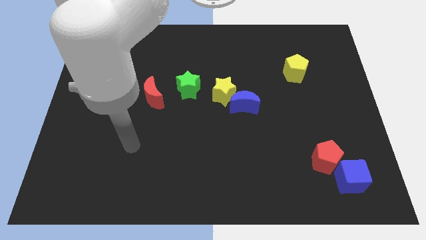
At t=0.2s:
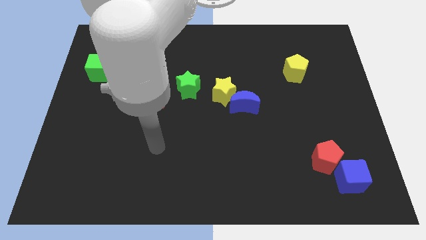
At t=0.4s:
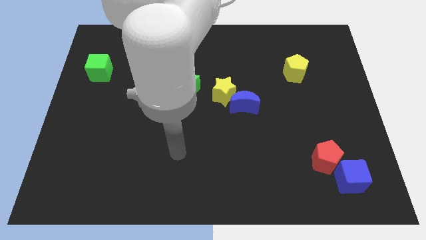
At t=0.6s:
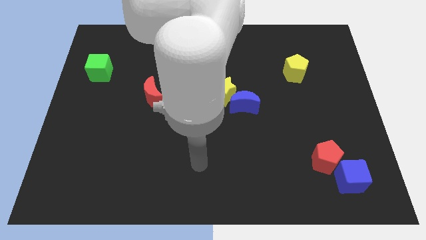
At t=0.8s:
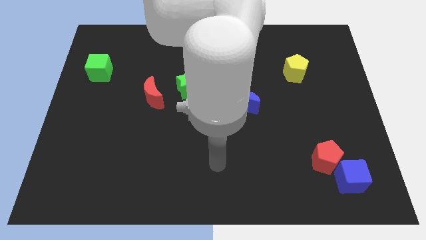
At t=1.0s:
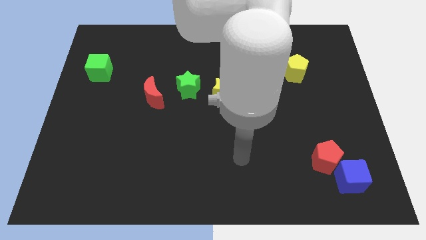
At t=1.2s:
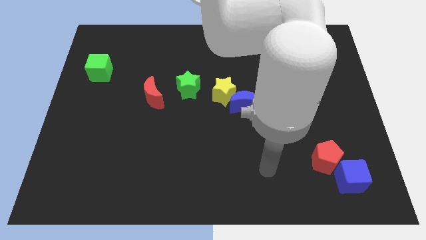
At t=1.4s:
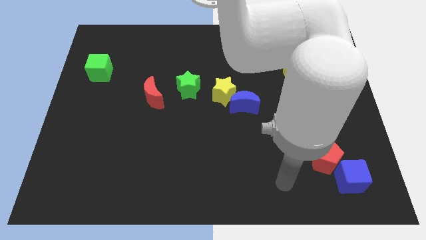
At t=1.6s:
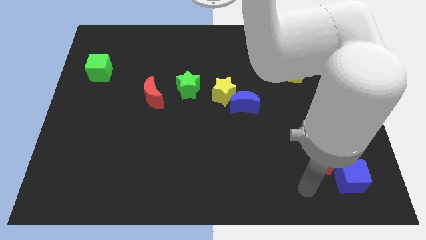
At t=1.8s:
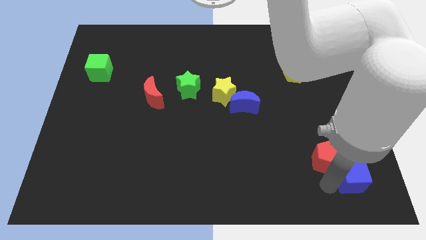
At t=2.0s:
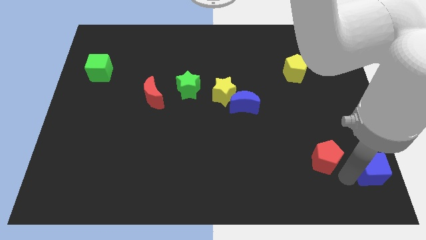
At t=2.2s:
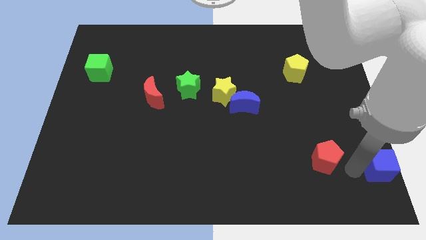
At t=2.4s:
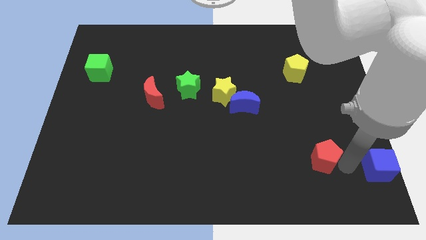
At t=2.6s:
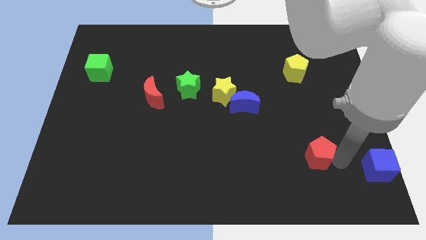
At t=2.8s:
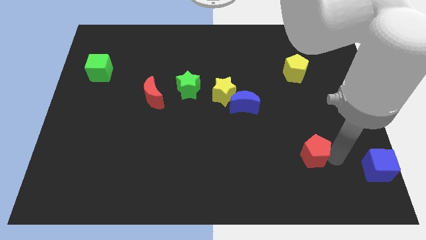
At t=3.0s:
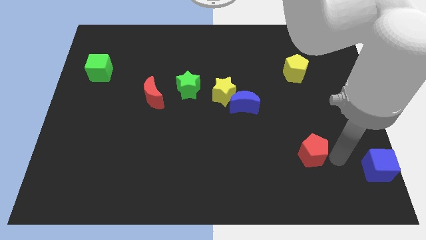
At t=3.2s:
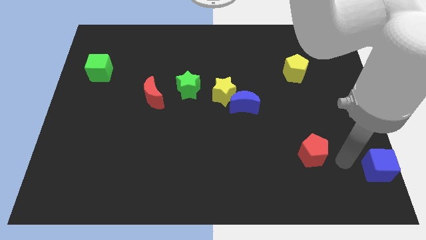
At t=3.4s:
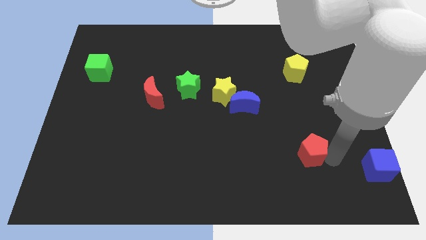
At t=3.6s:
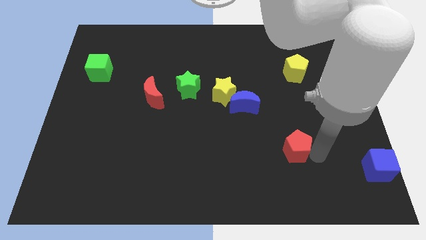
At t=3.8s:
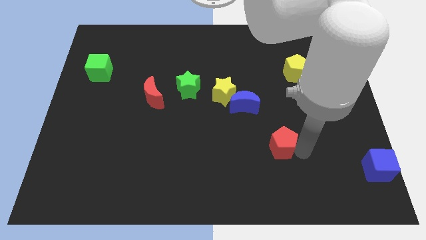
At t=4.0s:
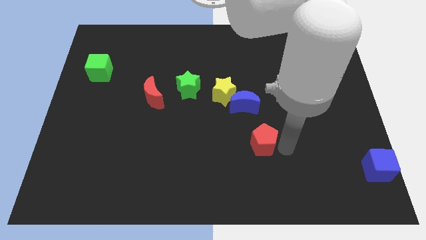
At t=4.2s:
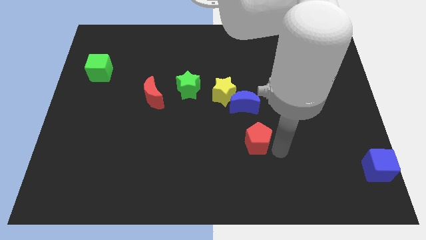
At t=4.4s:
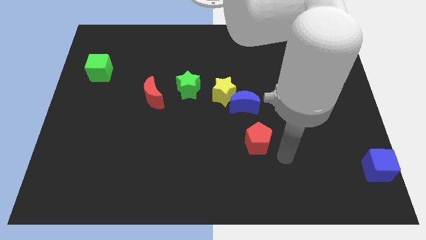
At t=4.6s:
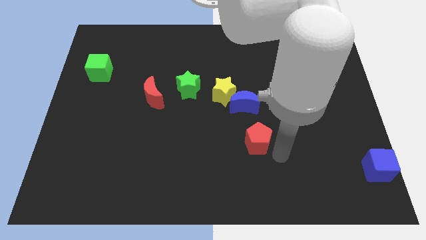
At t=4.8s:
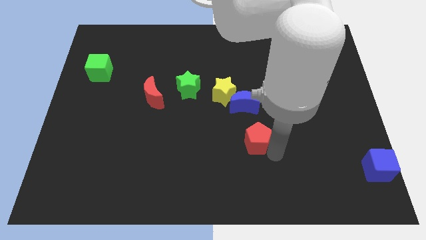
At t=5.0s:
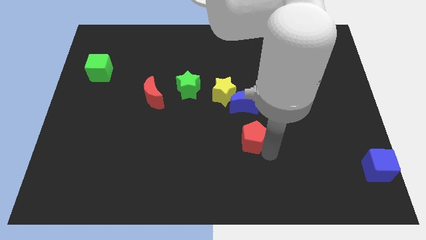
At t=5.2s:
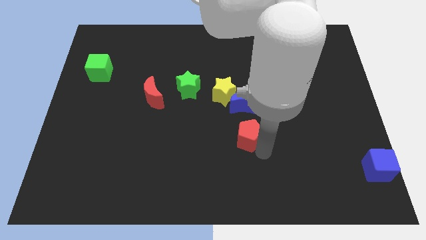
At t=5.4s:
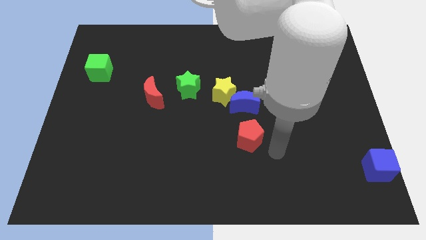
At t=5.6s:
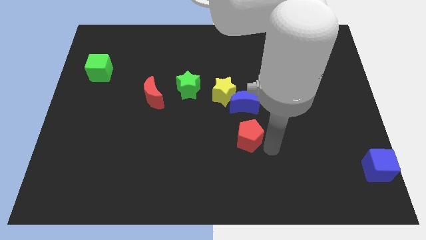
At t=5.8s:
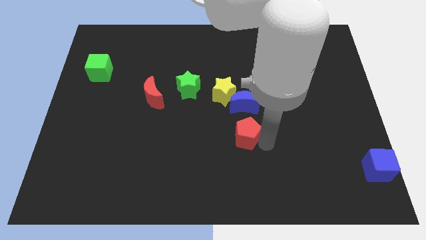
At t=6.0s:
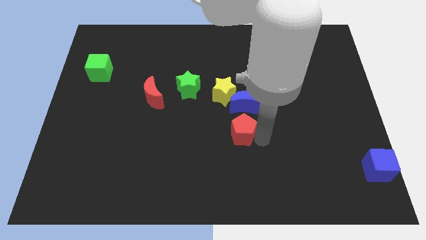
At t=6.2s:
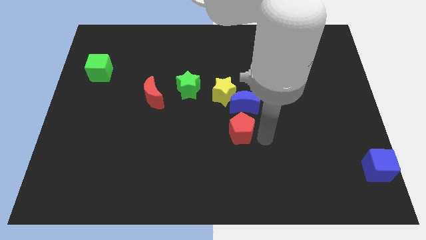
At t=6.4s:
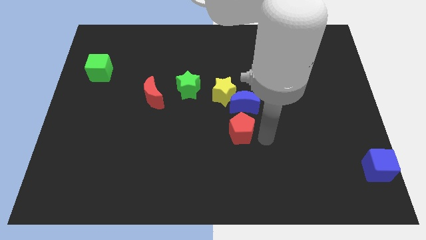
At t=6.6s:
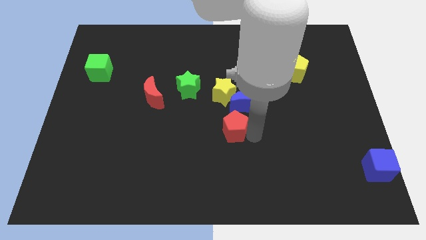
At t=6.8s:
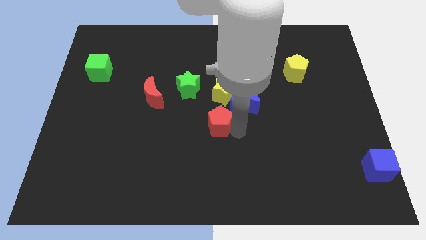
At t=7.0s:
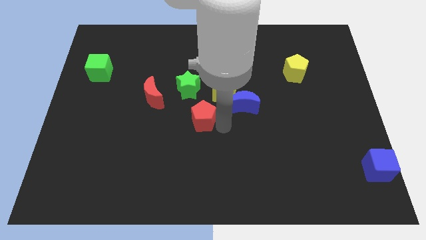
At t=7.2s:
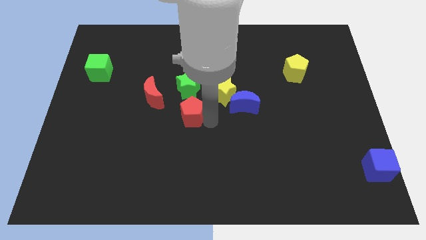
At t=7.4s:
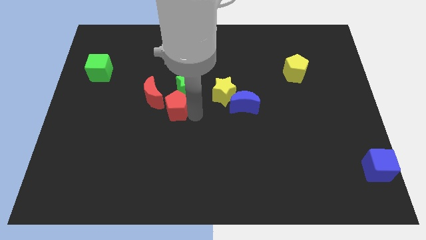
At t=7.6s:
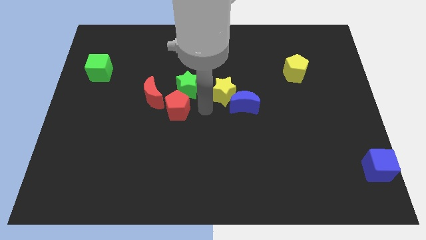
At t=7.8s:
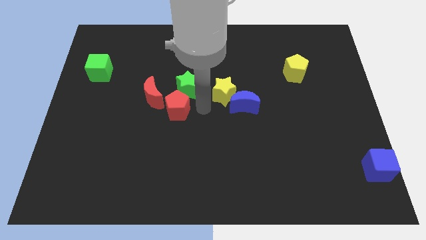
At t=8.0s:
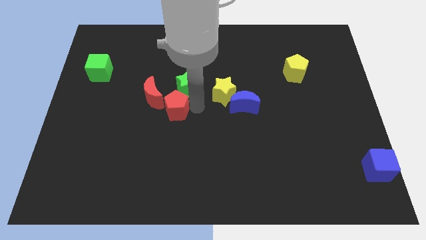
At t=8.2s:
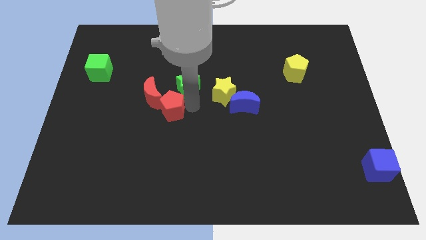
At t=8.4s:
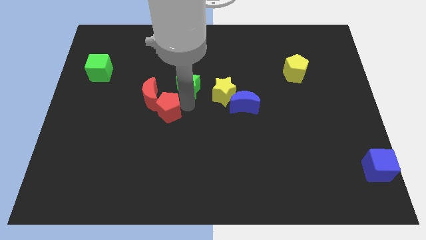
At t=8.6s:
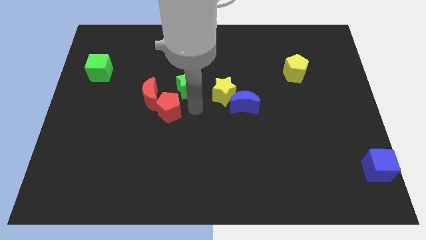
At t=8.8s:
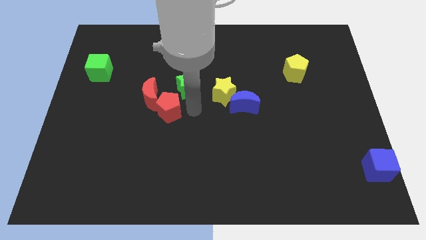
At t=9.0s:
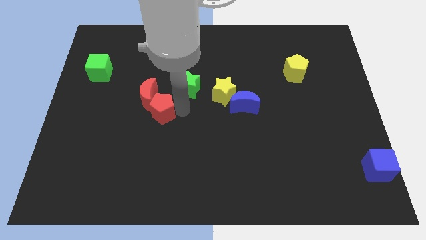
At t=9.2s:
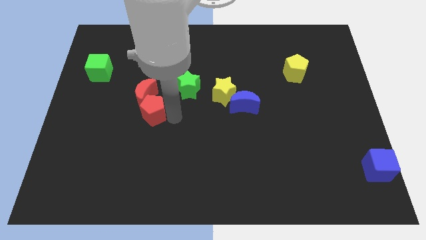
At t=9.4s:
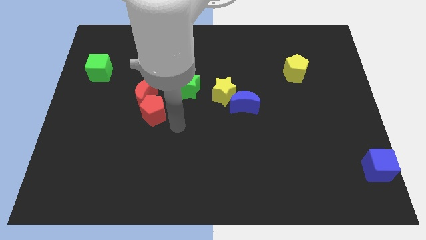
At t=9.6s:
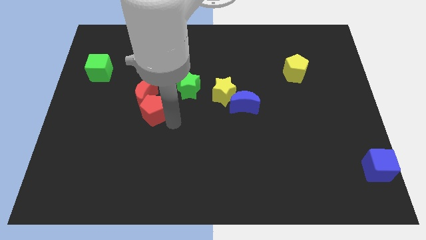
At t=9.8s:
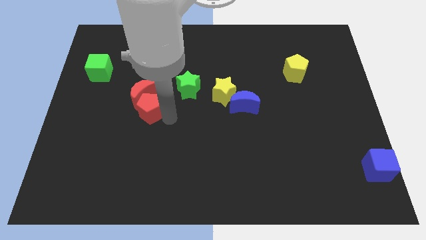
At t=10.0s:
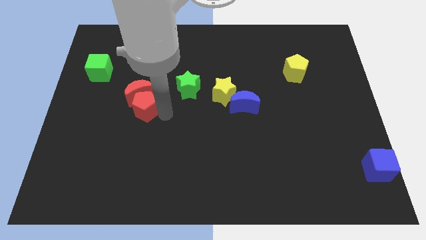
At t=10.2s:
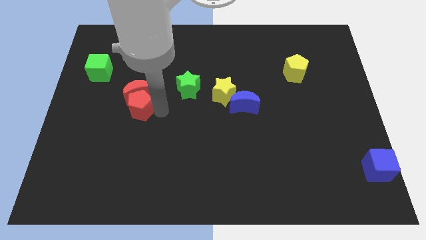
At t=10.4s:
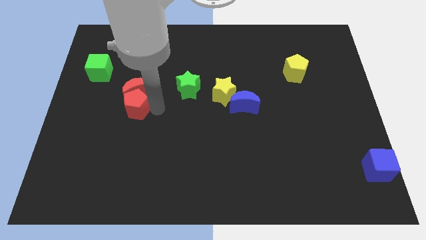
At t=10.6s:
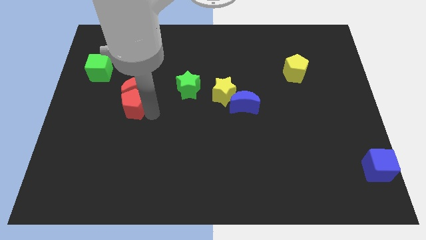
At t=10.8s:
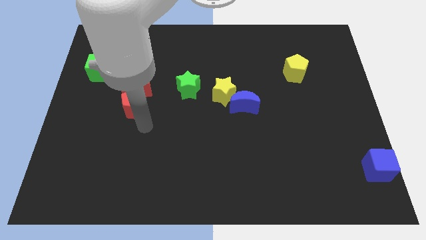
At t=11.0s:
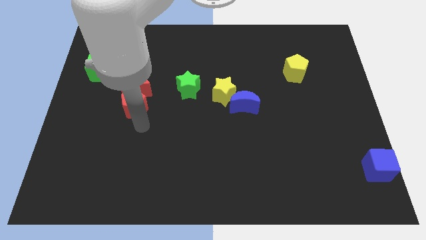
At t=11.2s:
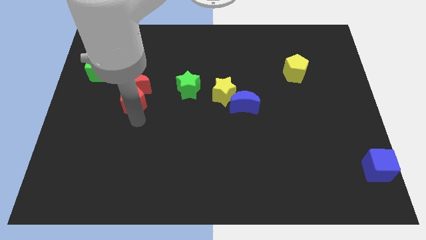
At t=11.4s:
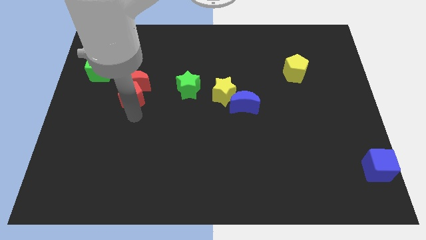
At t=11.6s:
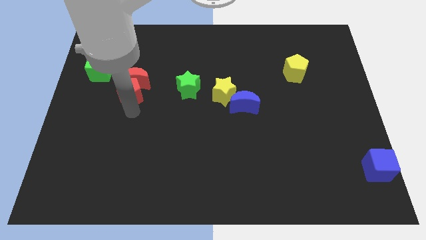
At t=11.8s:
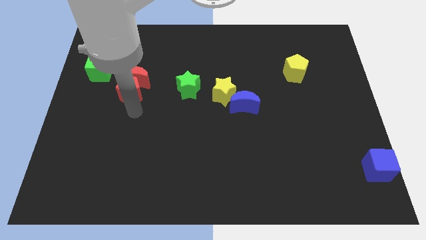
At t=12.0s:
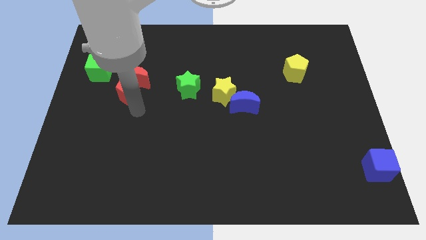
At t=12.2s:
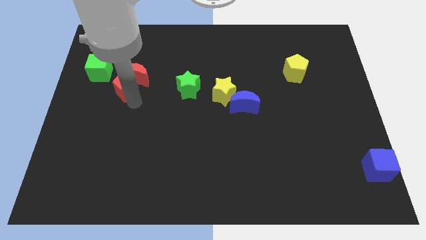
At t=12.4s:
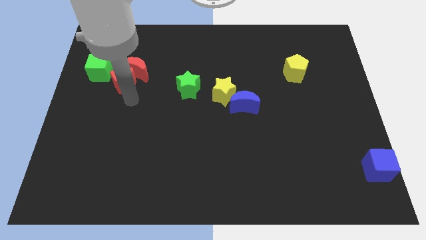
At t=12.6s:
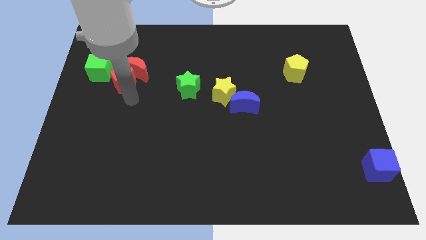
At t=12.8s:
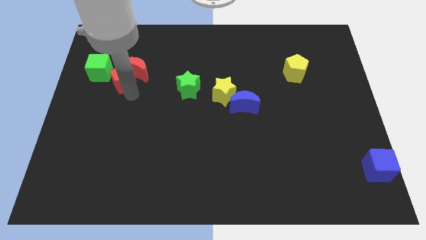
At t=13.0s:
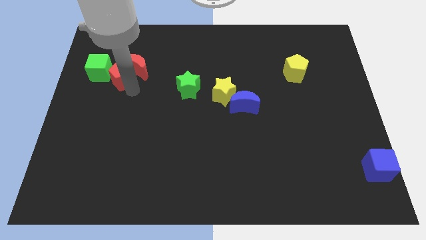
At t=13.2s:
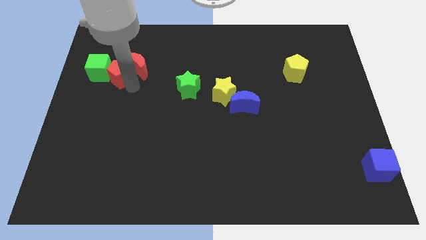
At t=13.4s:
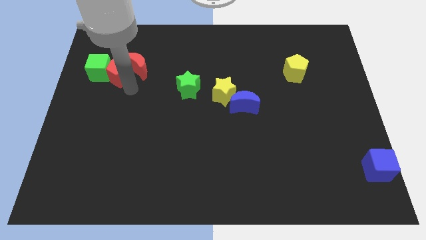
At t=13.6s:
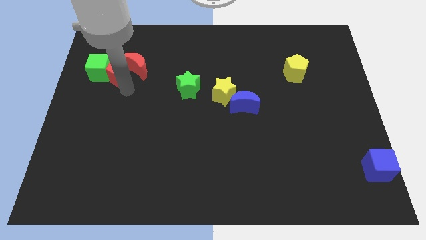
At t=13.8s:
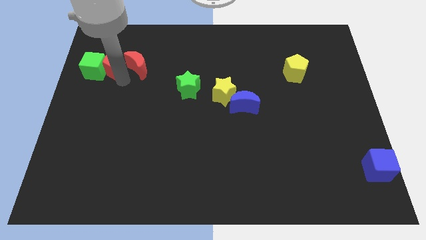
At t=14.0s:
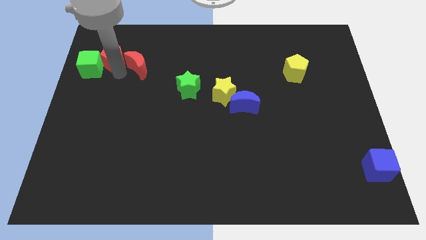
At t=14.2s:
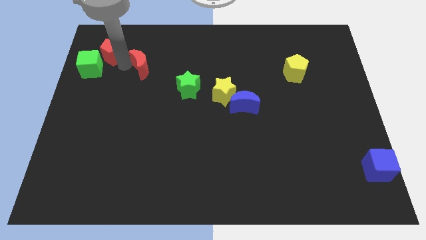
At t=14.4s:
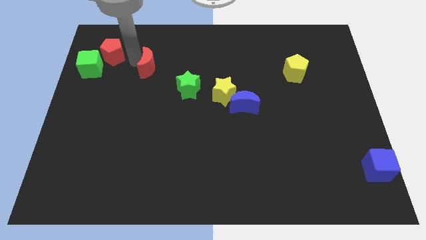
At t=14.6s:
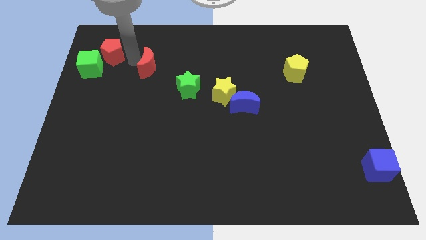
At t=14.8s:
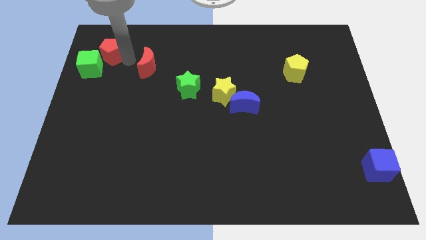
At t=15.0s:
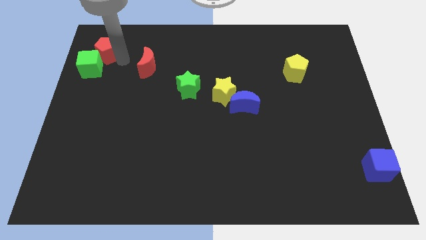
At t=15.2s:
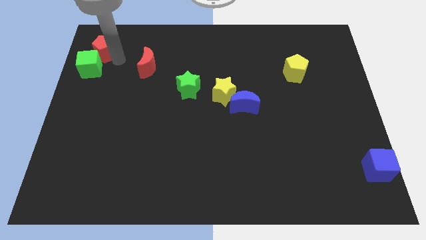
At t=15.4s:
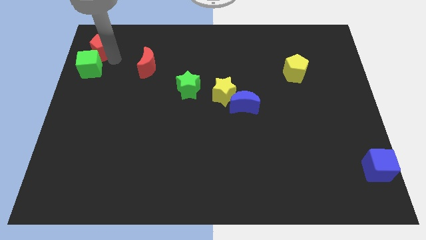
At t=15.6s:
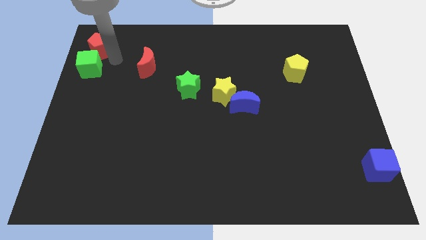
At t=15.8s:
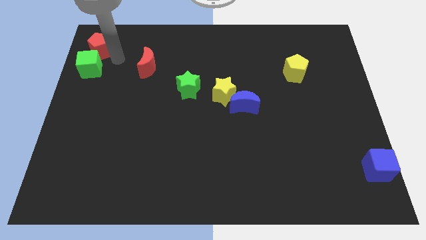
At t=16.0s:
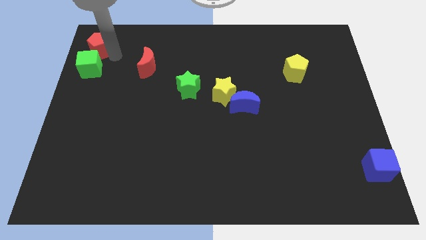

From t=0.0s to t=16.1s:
slide the red pentagon to the top left
